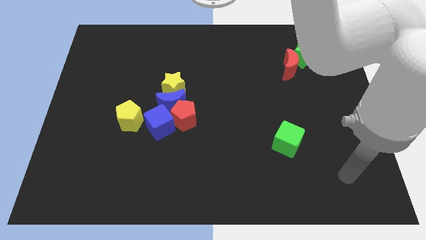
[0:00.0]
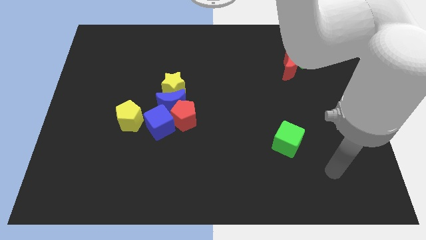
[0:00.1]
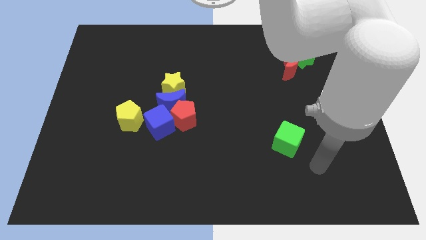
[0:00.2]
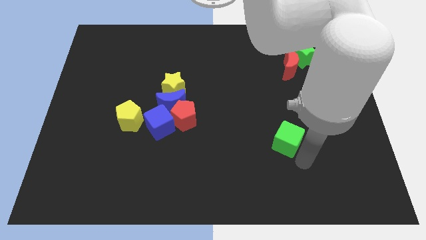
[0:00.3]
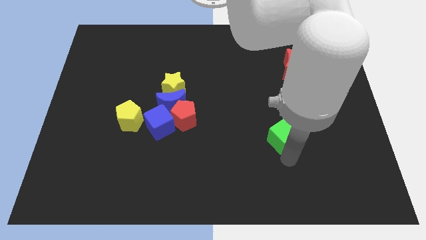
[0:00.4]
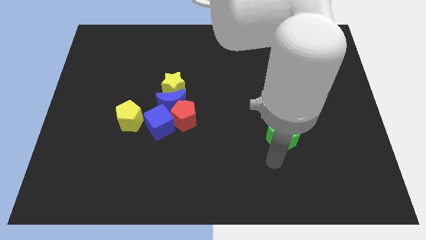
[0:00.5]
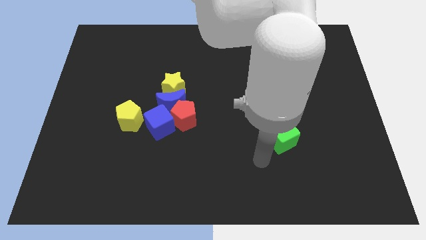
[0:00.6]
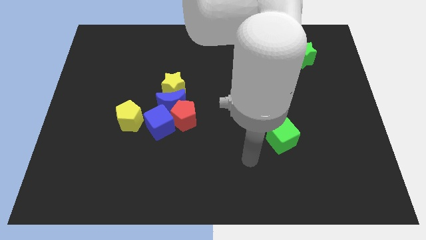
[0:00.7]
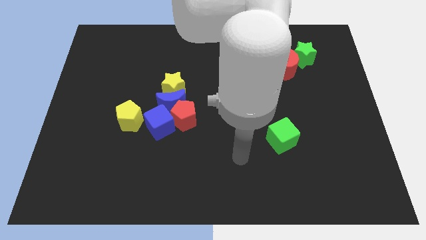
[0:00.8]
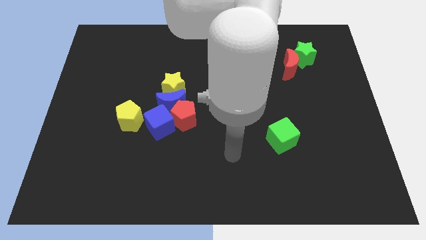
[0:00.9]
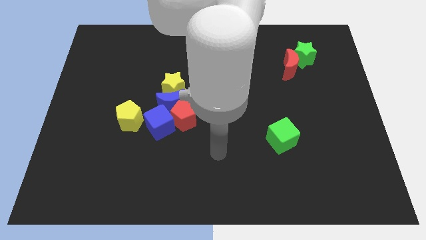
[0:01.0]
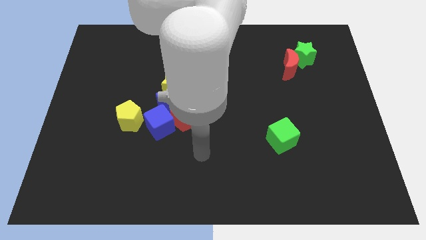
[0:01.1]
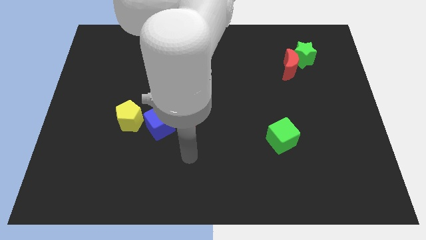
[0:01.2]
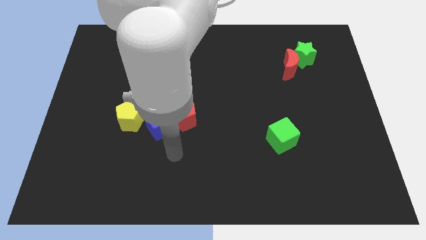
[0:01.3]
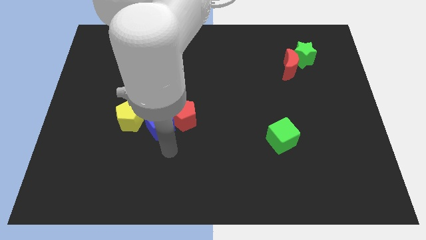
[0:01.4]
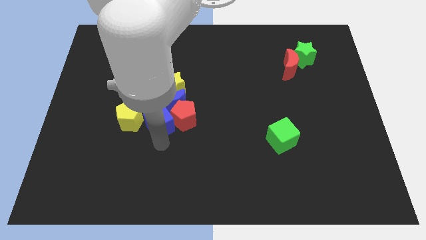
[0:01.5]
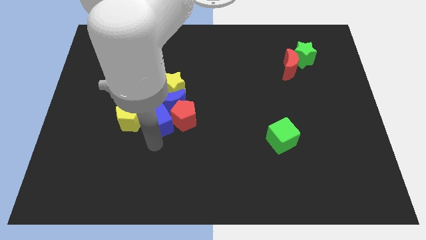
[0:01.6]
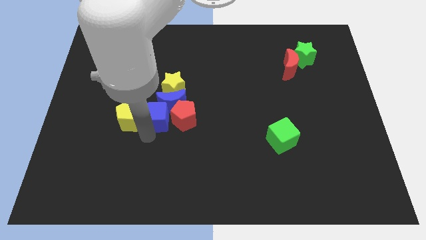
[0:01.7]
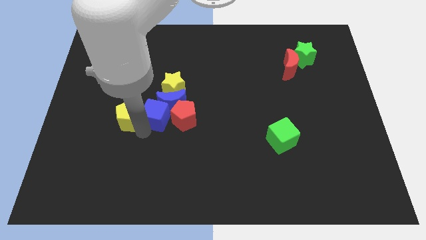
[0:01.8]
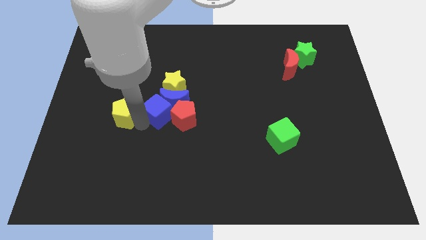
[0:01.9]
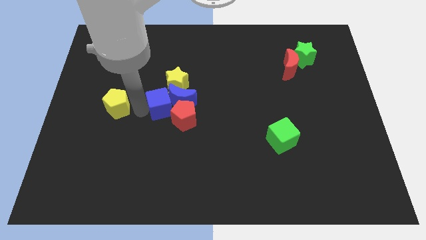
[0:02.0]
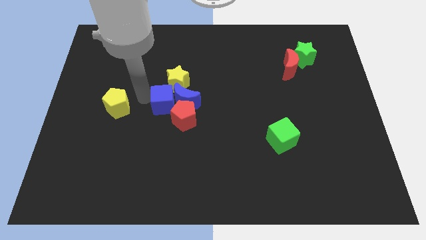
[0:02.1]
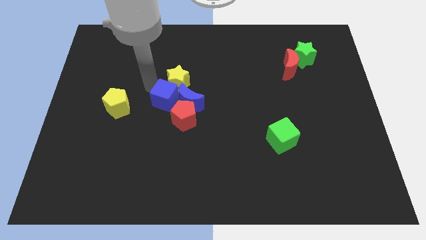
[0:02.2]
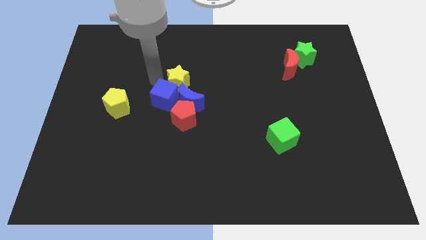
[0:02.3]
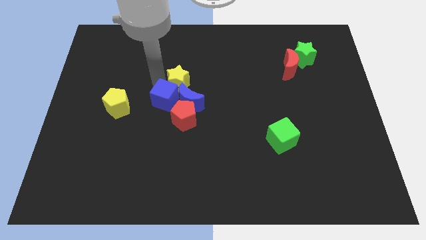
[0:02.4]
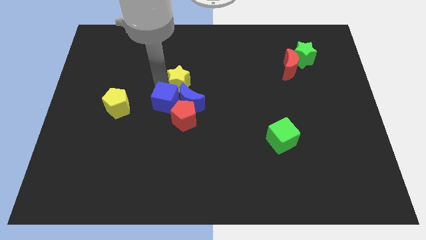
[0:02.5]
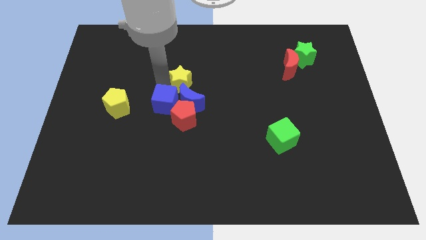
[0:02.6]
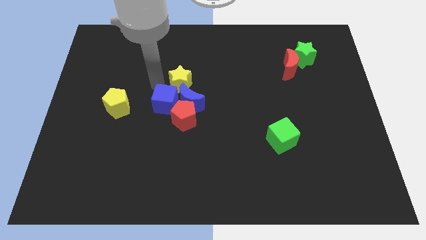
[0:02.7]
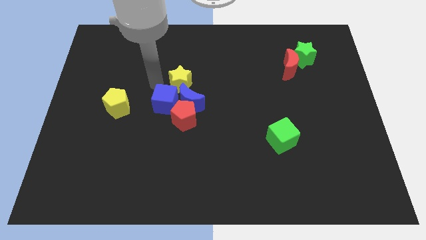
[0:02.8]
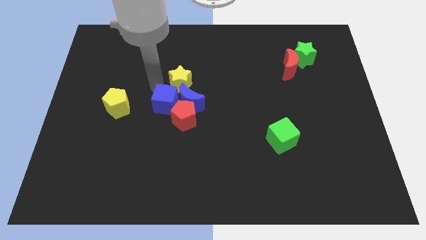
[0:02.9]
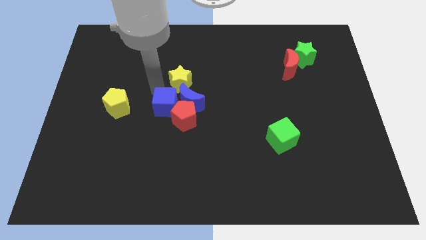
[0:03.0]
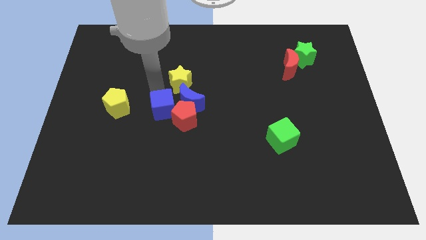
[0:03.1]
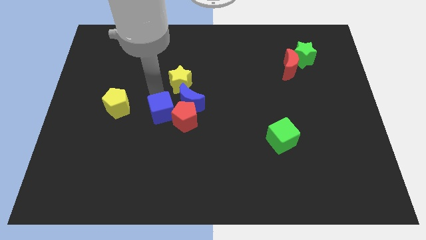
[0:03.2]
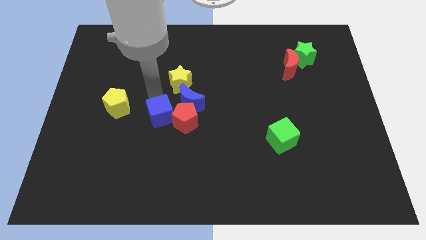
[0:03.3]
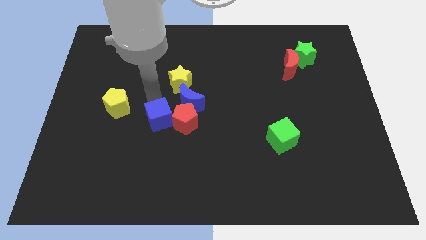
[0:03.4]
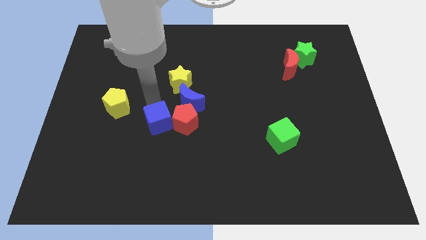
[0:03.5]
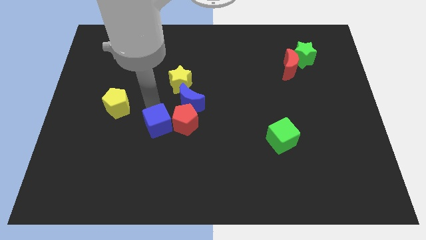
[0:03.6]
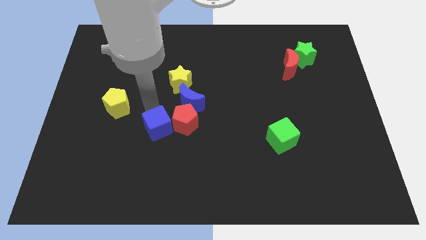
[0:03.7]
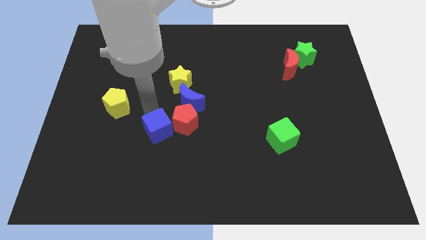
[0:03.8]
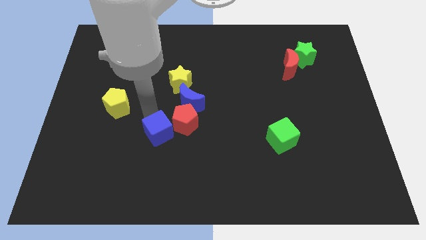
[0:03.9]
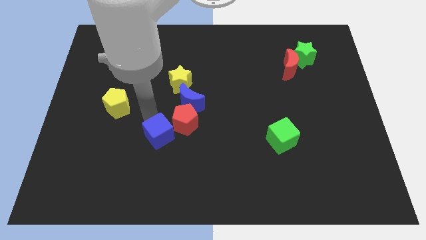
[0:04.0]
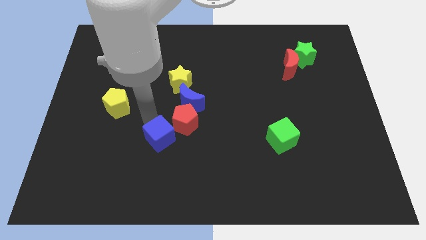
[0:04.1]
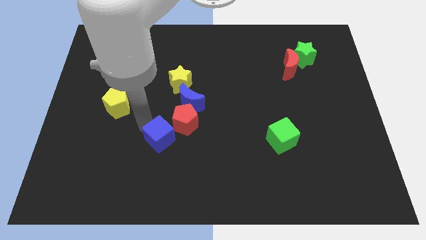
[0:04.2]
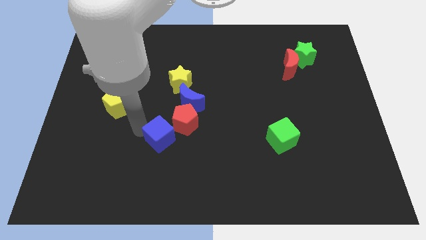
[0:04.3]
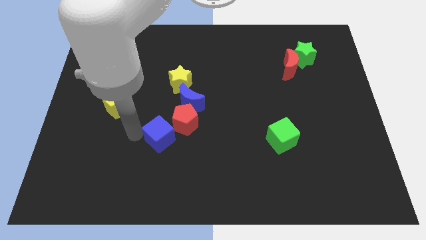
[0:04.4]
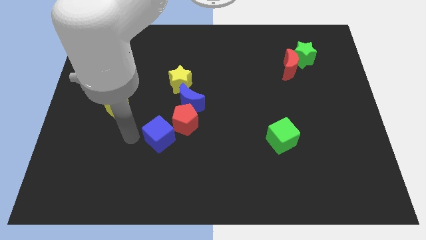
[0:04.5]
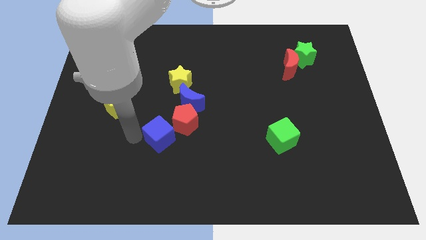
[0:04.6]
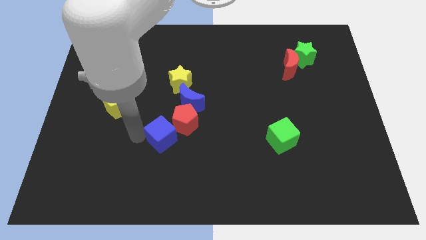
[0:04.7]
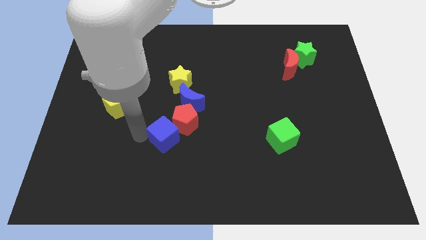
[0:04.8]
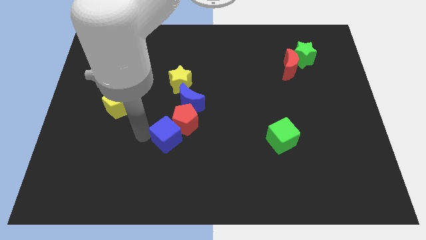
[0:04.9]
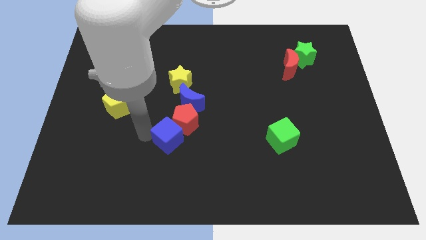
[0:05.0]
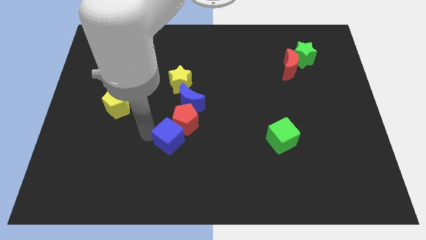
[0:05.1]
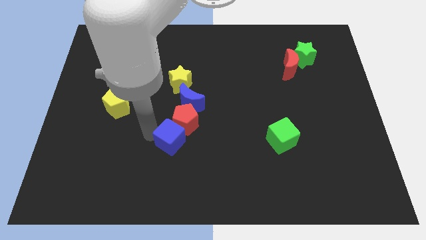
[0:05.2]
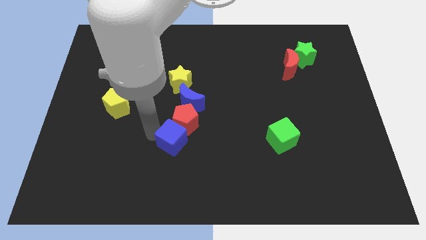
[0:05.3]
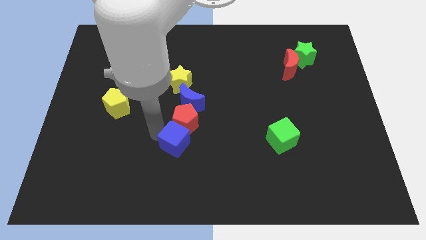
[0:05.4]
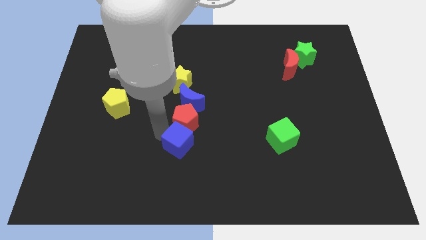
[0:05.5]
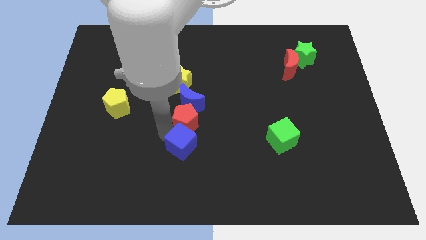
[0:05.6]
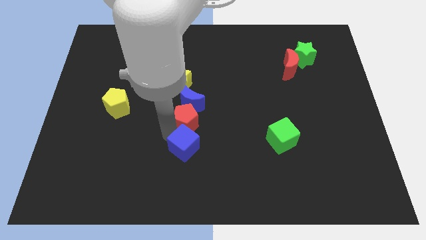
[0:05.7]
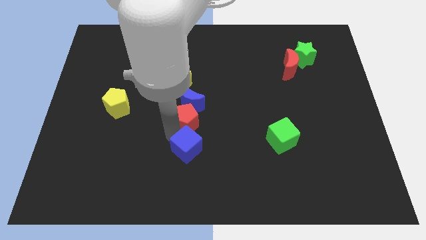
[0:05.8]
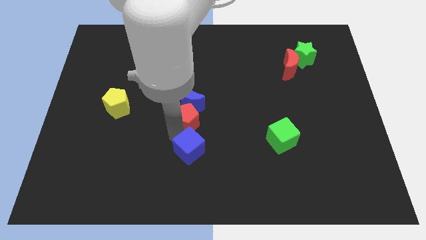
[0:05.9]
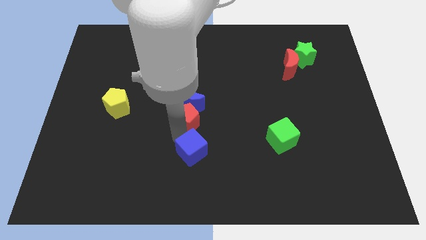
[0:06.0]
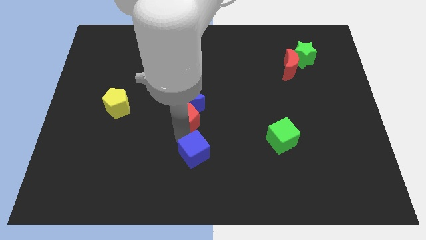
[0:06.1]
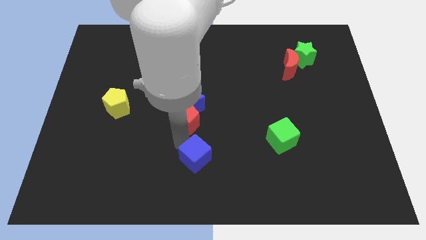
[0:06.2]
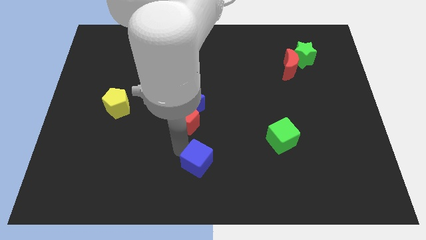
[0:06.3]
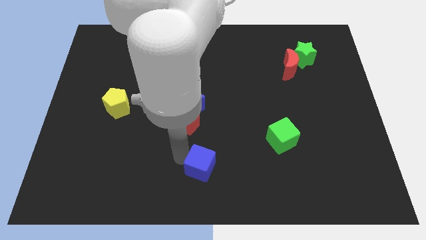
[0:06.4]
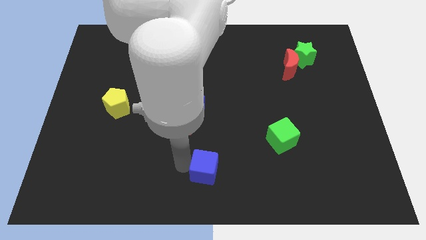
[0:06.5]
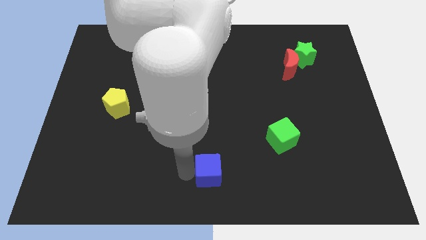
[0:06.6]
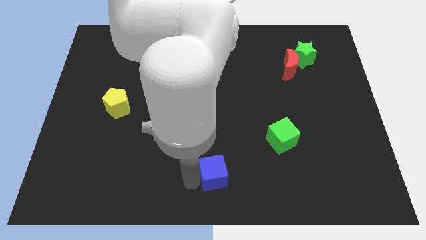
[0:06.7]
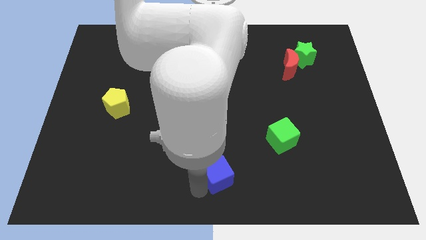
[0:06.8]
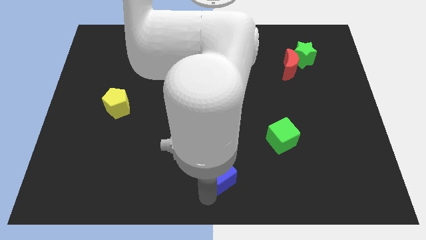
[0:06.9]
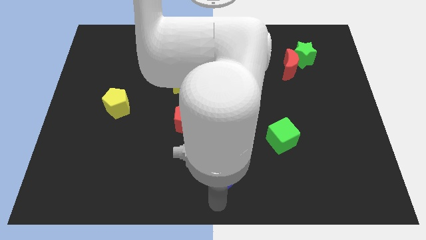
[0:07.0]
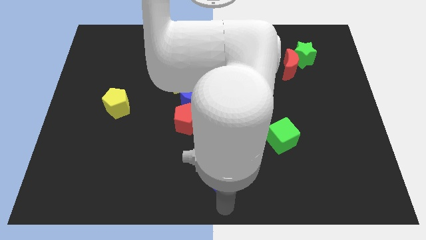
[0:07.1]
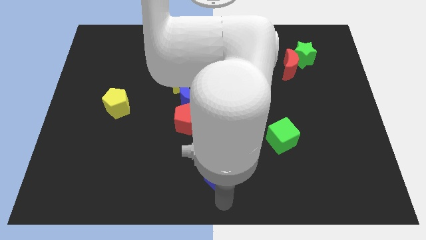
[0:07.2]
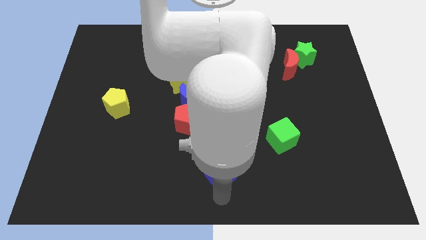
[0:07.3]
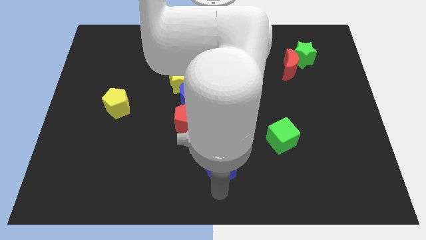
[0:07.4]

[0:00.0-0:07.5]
slide the blue cube right a little bit

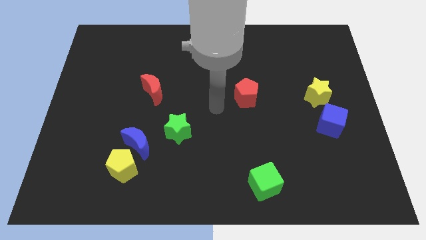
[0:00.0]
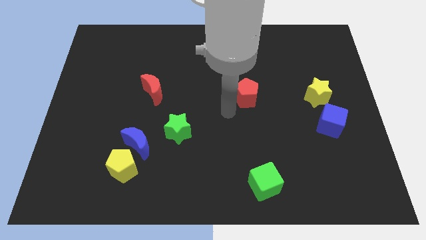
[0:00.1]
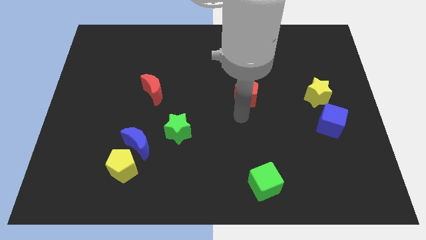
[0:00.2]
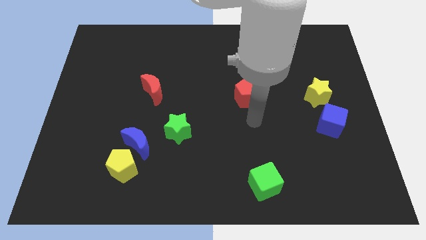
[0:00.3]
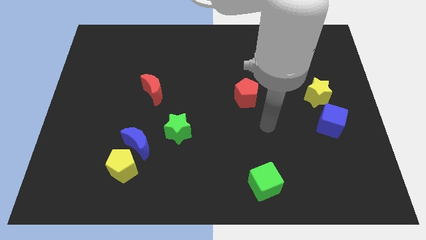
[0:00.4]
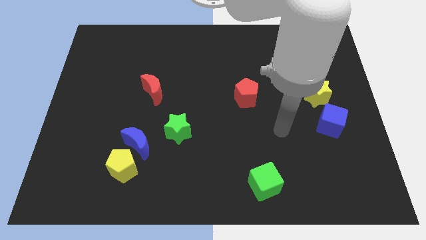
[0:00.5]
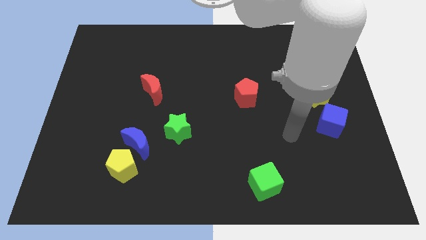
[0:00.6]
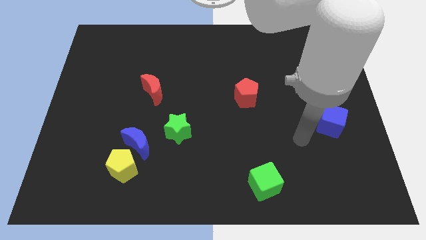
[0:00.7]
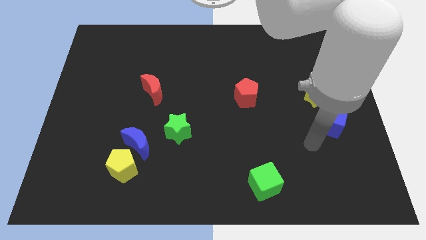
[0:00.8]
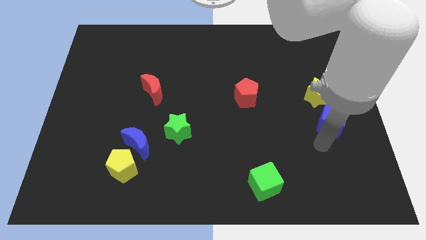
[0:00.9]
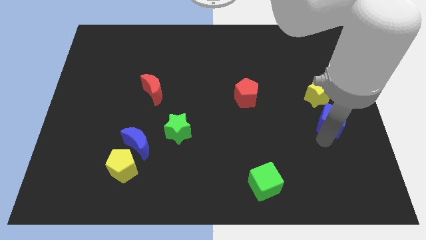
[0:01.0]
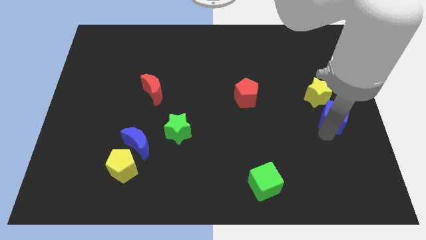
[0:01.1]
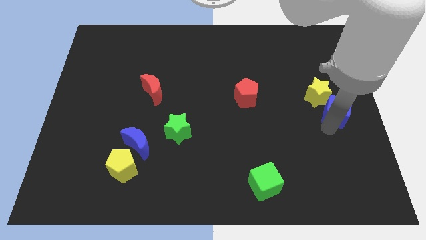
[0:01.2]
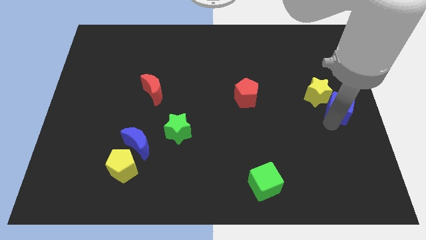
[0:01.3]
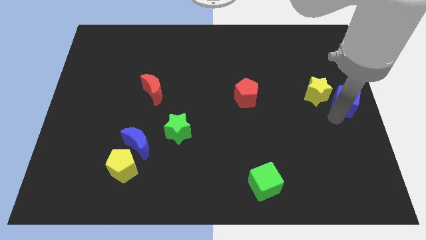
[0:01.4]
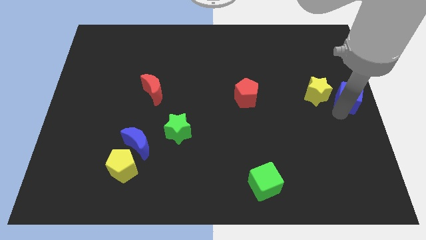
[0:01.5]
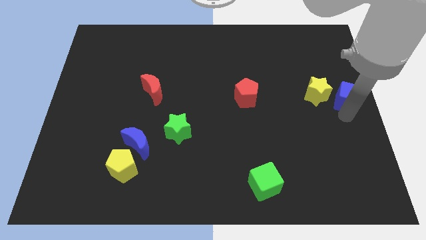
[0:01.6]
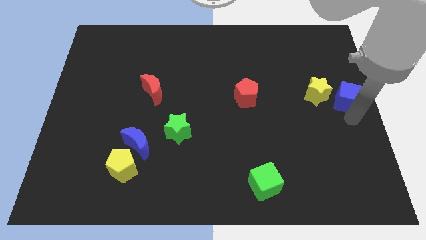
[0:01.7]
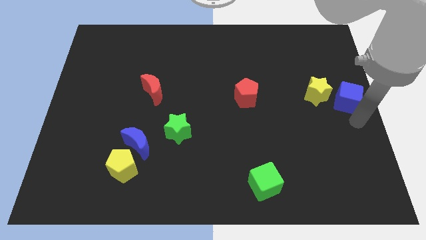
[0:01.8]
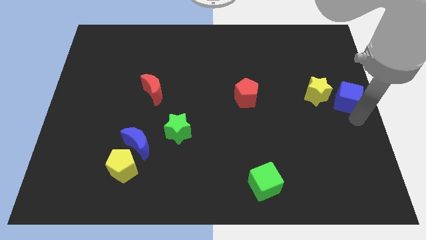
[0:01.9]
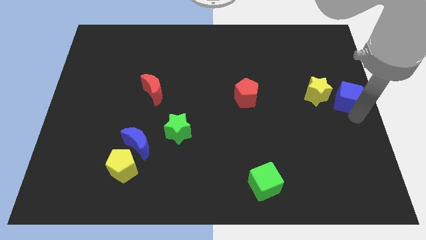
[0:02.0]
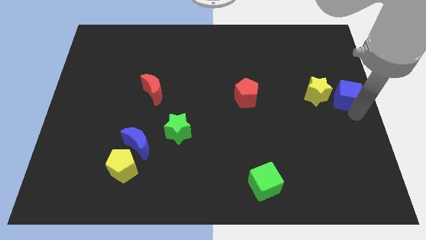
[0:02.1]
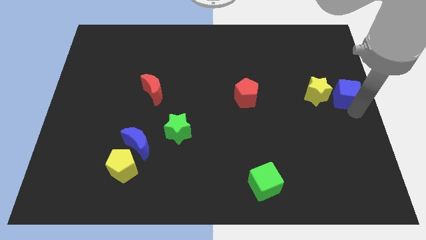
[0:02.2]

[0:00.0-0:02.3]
push the blue cube up a bit
